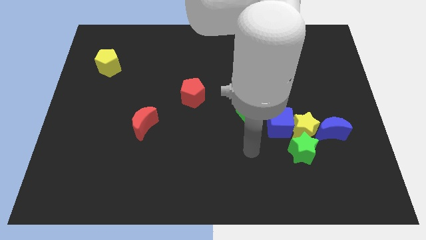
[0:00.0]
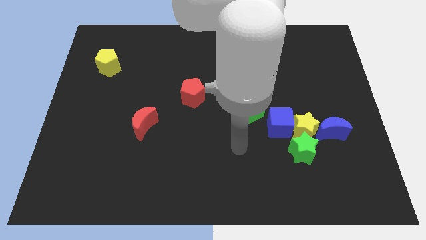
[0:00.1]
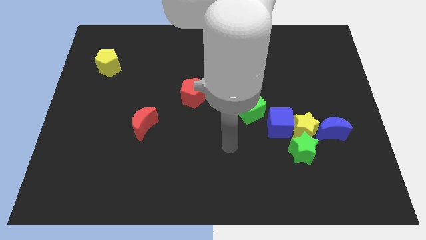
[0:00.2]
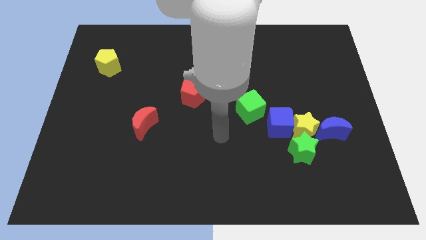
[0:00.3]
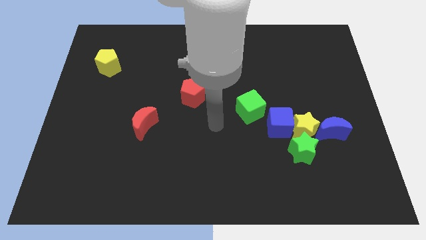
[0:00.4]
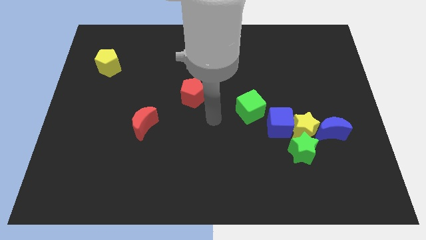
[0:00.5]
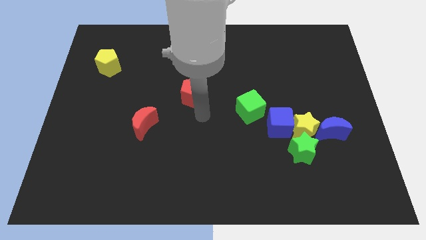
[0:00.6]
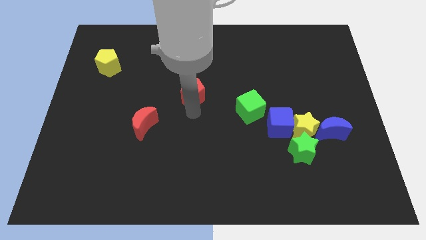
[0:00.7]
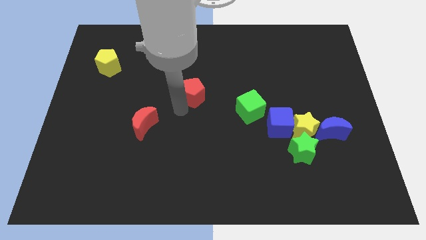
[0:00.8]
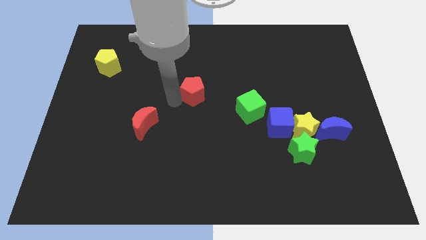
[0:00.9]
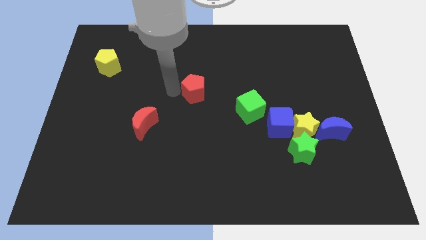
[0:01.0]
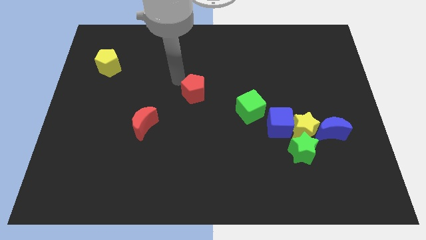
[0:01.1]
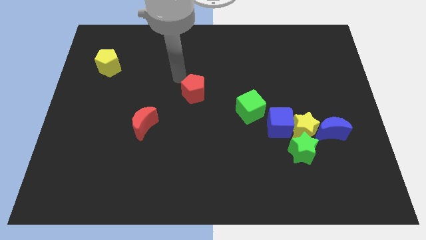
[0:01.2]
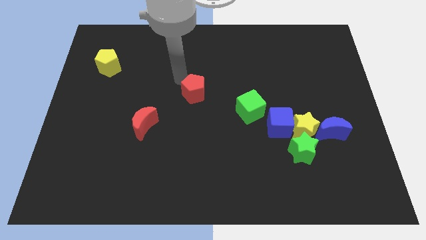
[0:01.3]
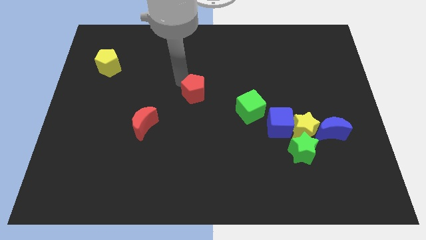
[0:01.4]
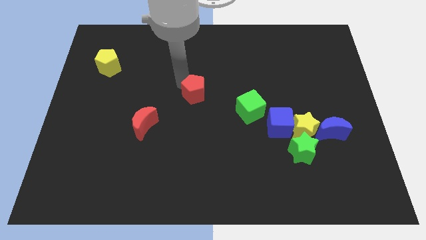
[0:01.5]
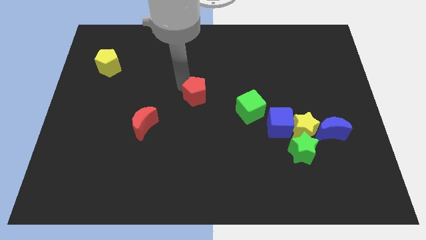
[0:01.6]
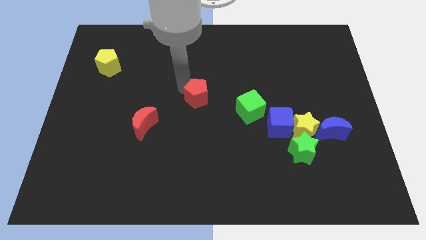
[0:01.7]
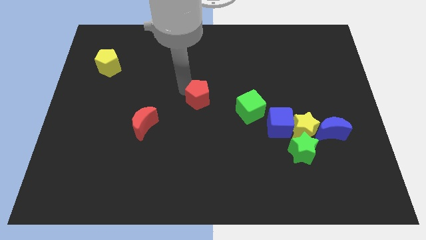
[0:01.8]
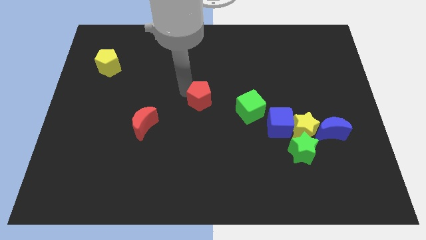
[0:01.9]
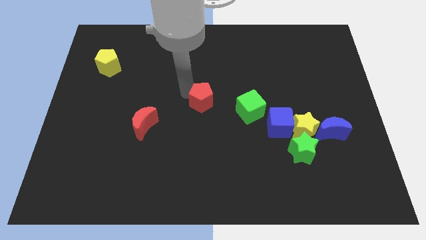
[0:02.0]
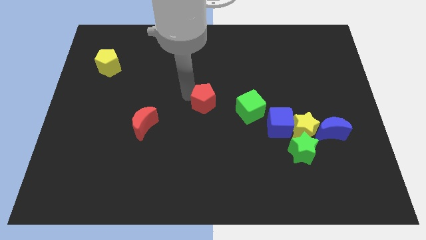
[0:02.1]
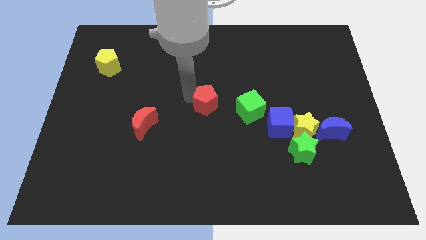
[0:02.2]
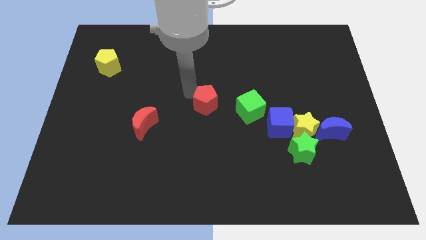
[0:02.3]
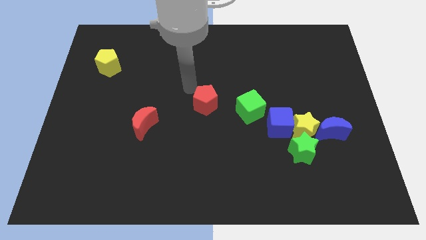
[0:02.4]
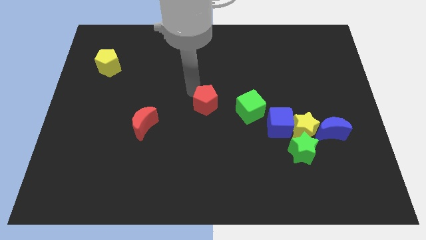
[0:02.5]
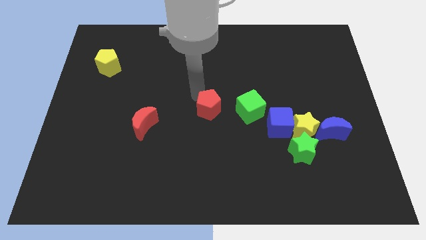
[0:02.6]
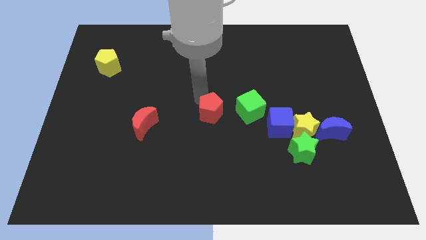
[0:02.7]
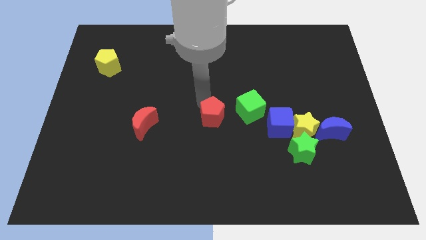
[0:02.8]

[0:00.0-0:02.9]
slide the red pentagon a bit down and then right

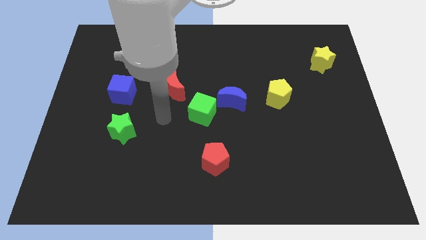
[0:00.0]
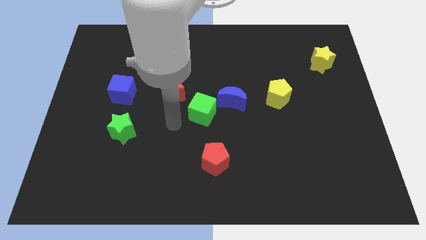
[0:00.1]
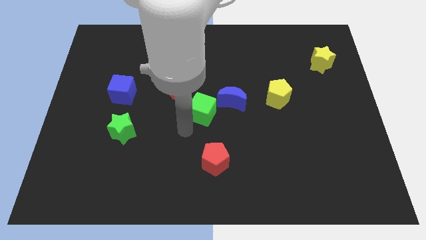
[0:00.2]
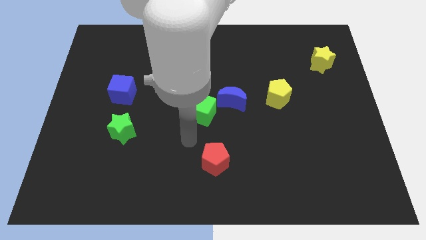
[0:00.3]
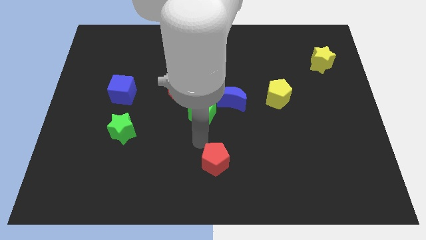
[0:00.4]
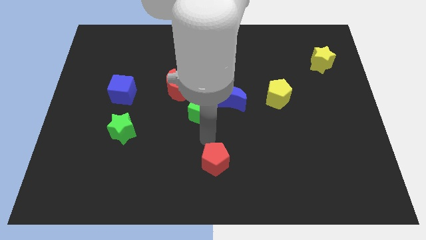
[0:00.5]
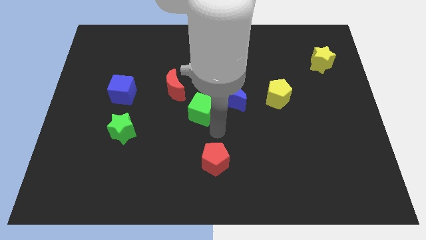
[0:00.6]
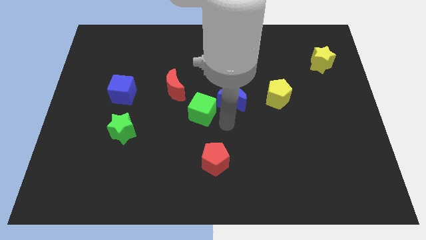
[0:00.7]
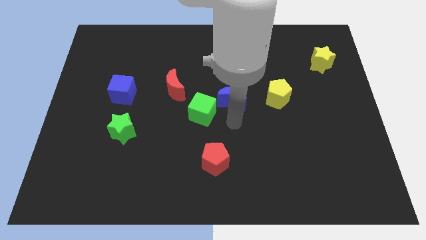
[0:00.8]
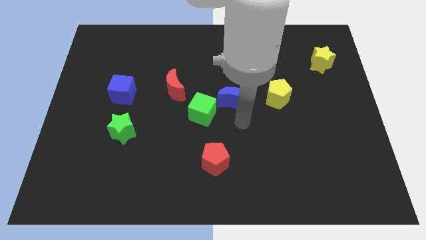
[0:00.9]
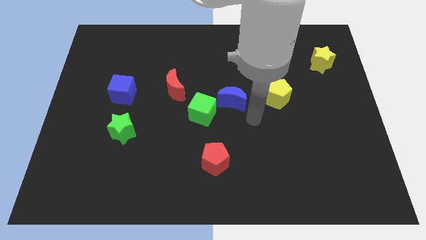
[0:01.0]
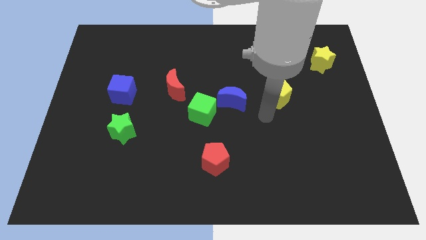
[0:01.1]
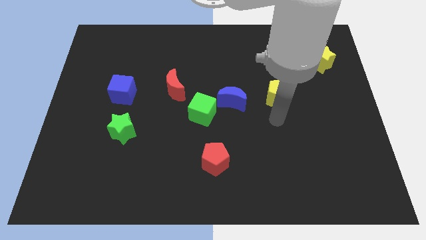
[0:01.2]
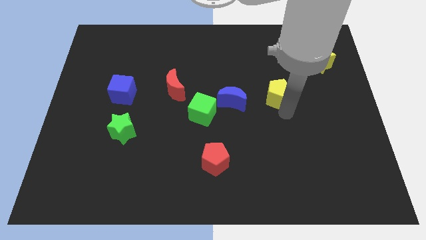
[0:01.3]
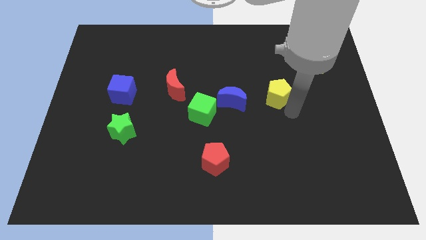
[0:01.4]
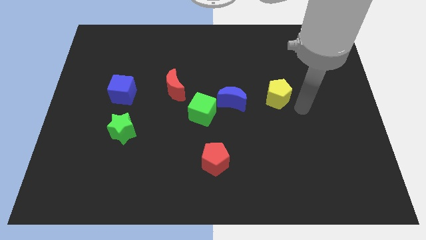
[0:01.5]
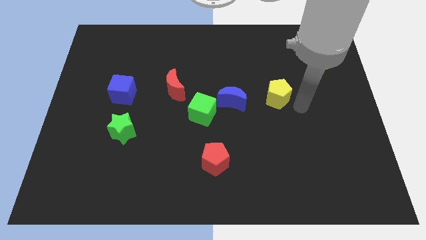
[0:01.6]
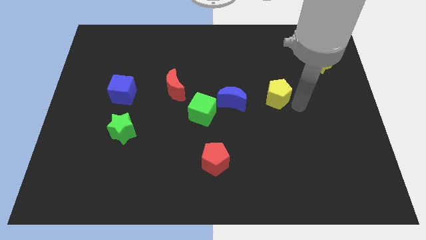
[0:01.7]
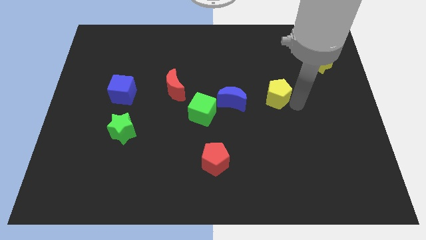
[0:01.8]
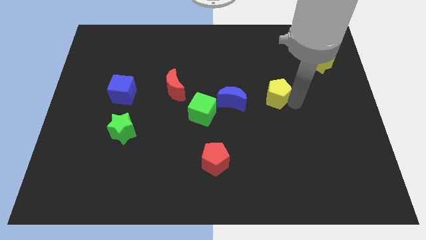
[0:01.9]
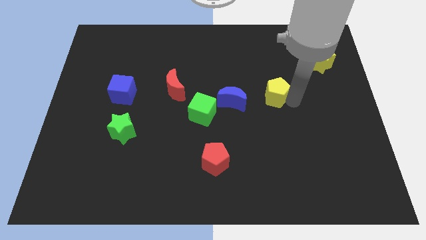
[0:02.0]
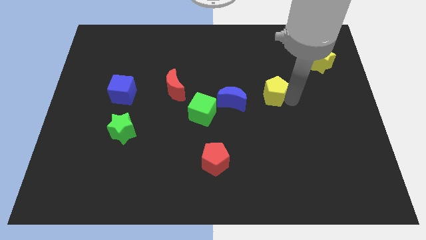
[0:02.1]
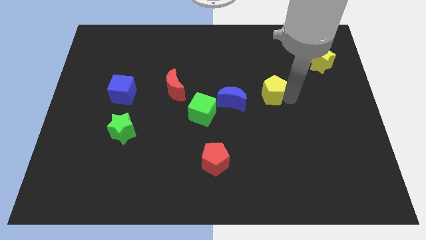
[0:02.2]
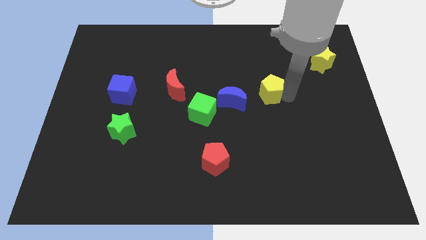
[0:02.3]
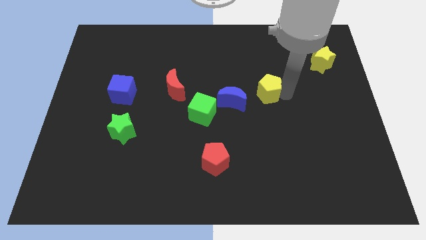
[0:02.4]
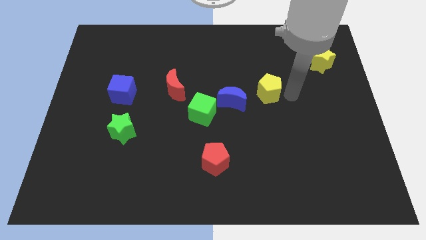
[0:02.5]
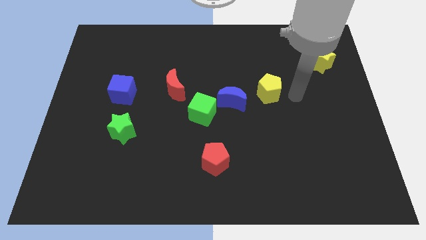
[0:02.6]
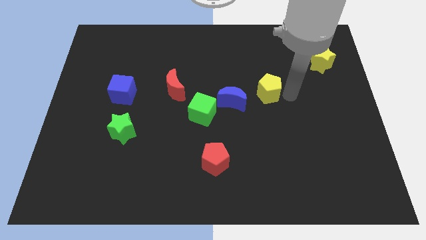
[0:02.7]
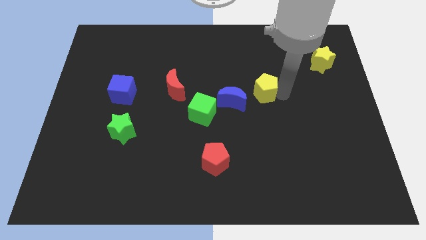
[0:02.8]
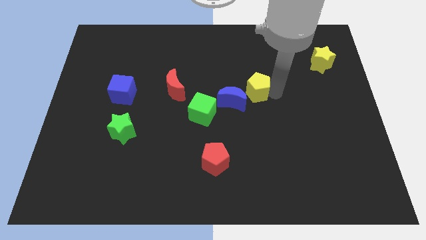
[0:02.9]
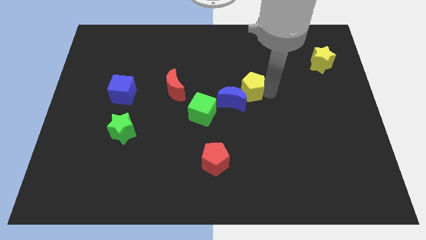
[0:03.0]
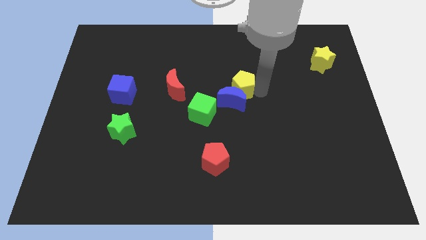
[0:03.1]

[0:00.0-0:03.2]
slightly slide the yellow pentagon to the left

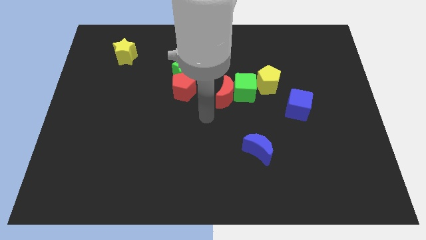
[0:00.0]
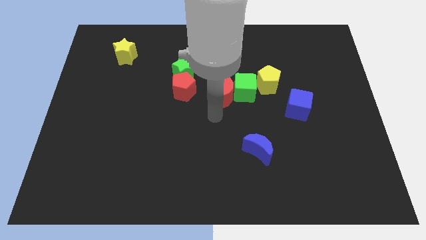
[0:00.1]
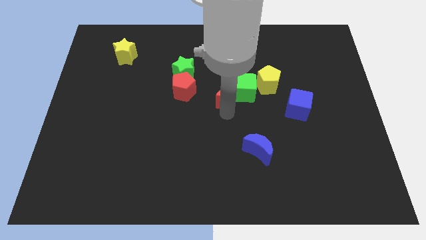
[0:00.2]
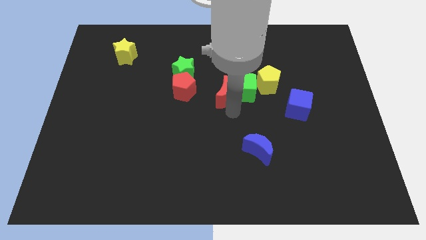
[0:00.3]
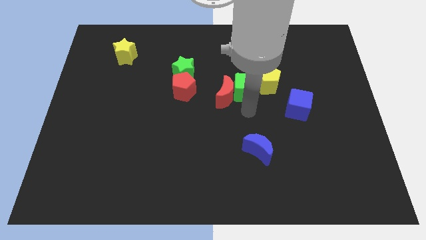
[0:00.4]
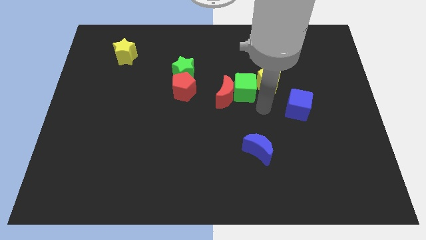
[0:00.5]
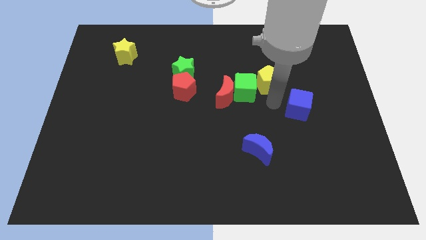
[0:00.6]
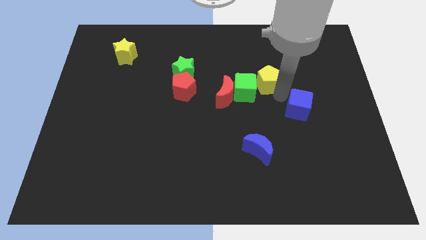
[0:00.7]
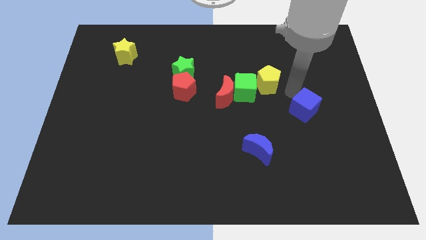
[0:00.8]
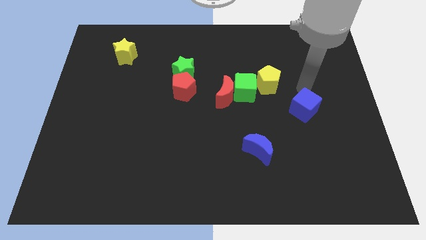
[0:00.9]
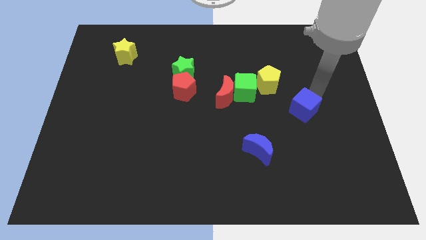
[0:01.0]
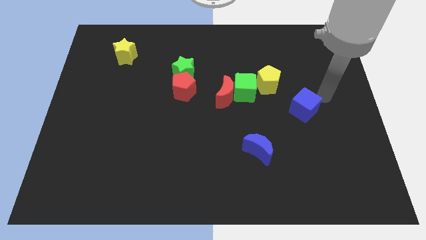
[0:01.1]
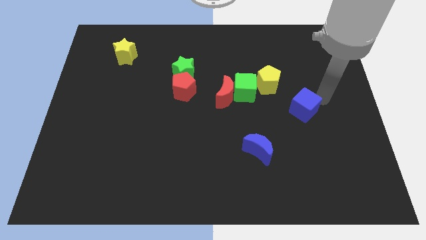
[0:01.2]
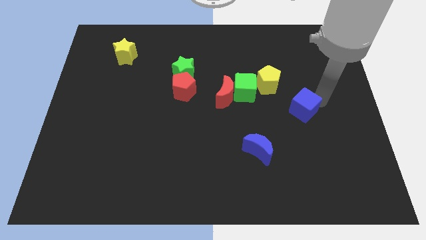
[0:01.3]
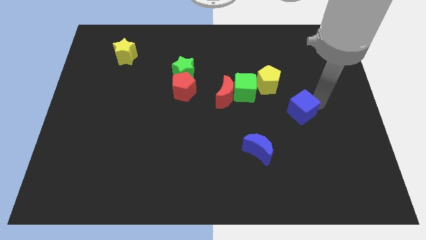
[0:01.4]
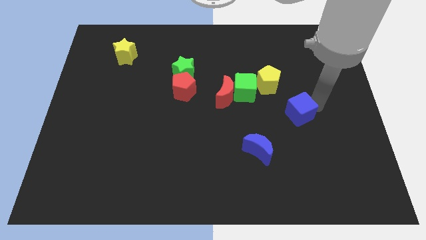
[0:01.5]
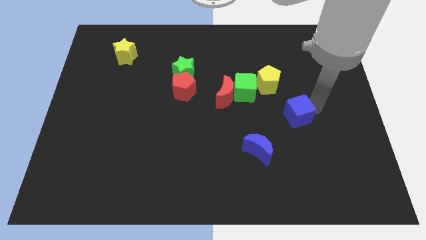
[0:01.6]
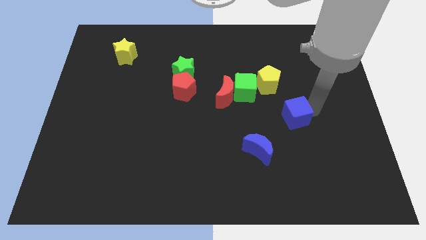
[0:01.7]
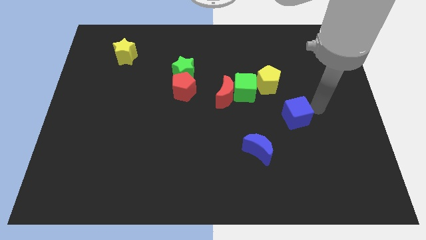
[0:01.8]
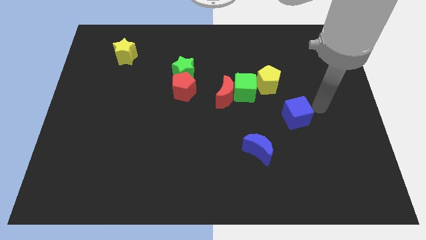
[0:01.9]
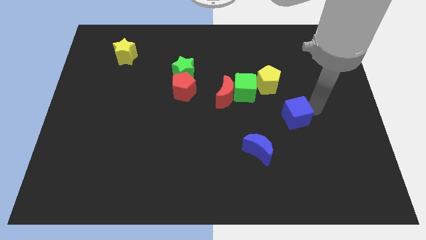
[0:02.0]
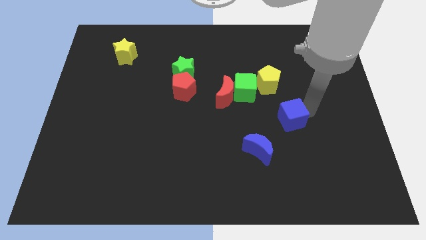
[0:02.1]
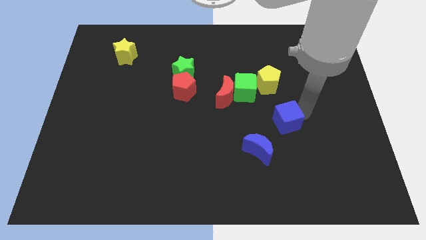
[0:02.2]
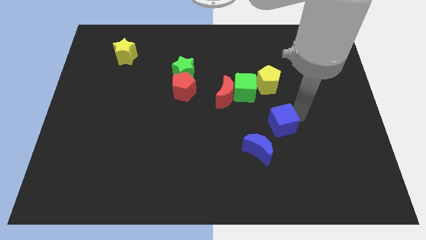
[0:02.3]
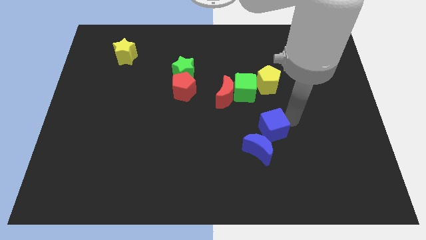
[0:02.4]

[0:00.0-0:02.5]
slide the blue cube downwards and then left slightly
